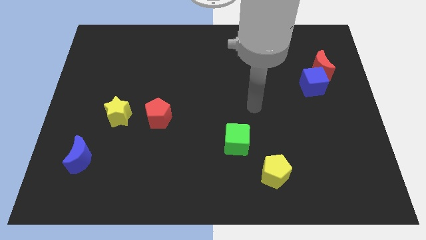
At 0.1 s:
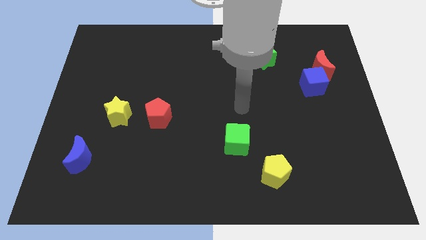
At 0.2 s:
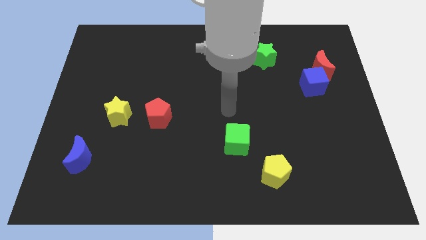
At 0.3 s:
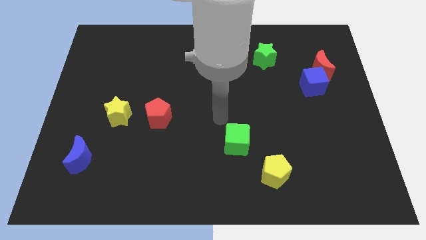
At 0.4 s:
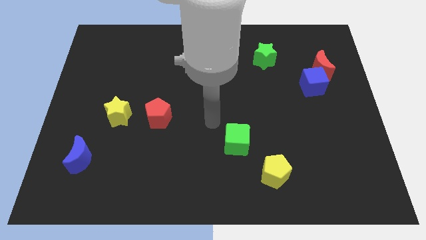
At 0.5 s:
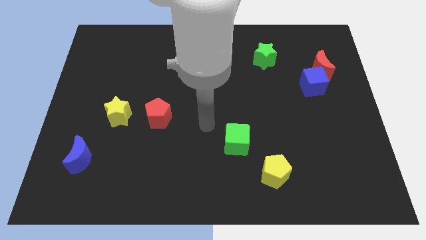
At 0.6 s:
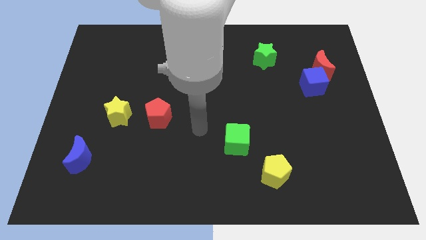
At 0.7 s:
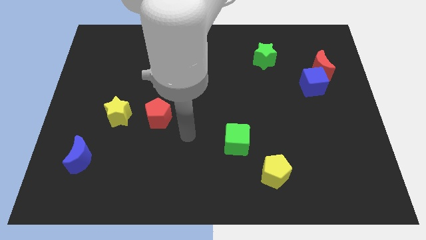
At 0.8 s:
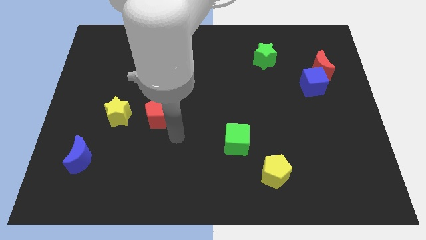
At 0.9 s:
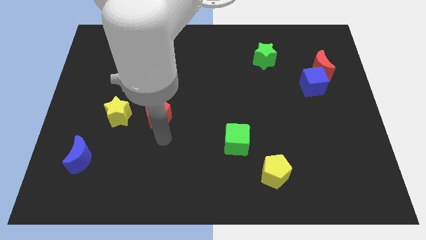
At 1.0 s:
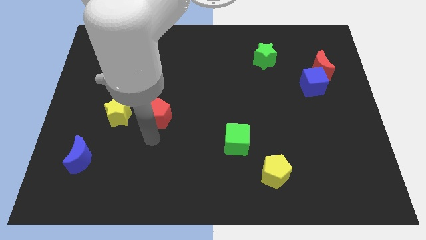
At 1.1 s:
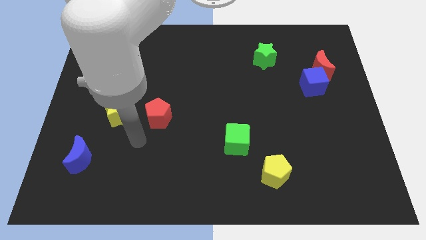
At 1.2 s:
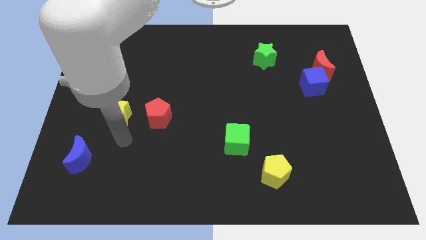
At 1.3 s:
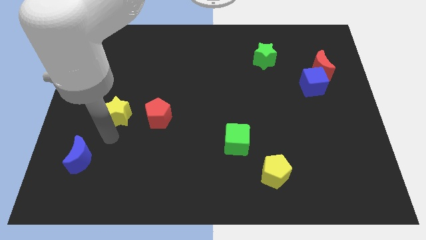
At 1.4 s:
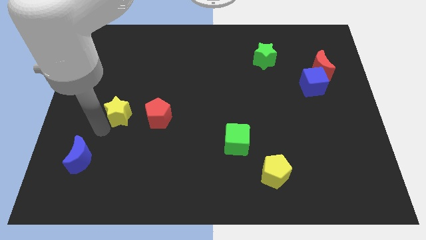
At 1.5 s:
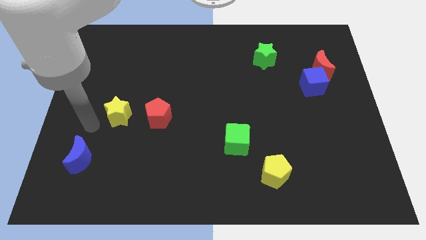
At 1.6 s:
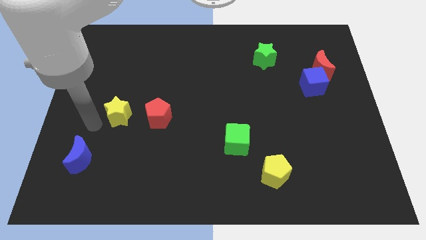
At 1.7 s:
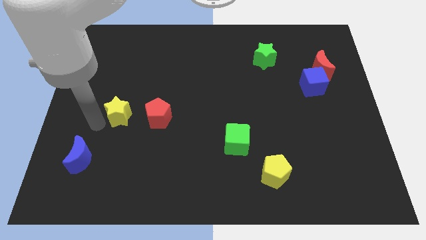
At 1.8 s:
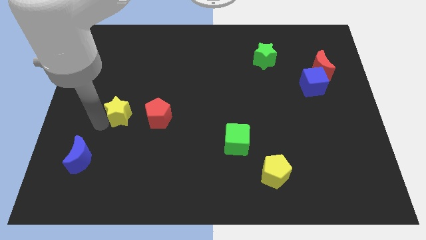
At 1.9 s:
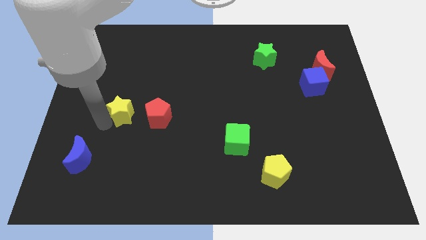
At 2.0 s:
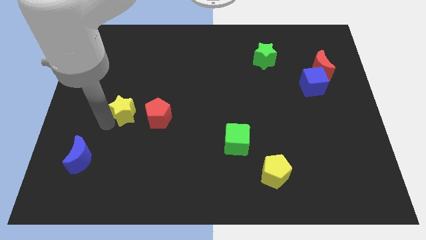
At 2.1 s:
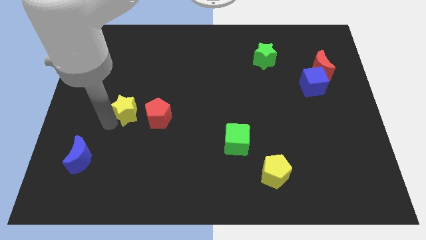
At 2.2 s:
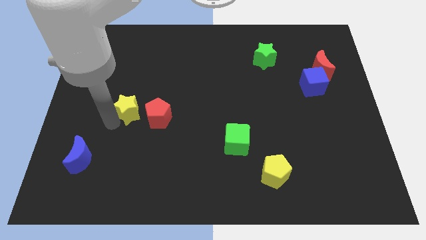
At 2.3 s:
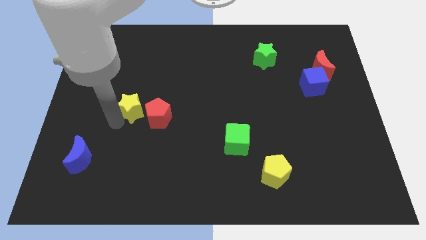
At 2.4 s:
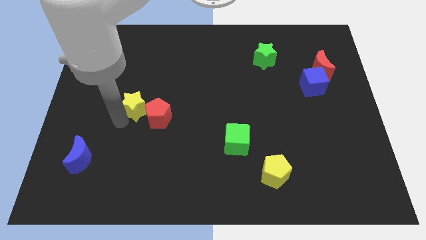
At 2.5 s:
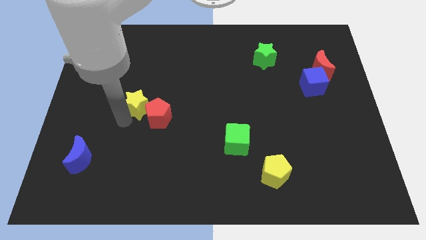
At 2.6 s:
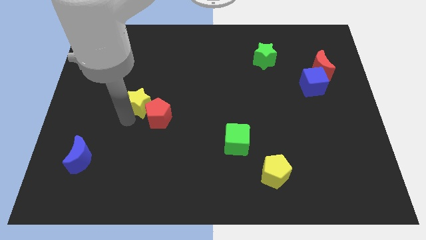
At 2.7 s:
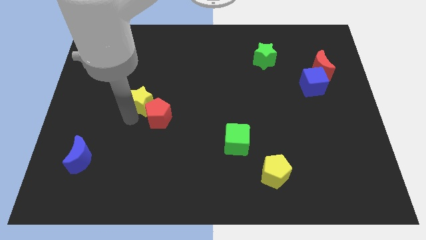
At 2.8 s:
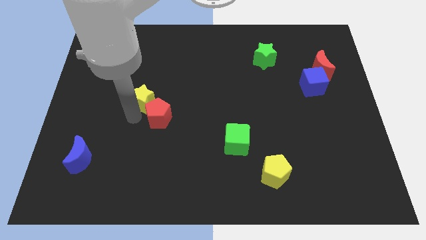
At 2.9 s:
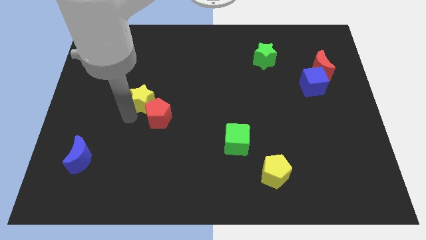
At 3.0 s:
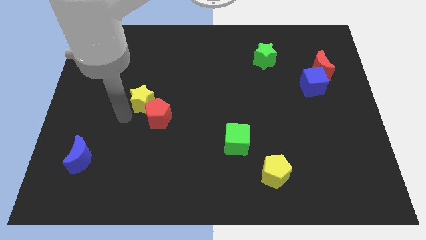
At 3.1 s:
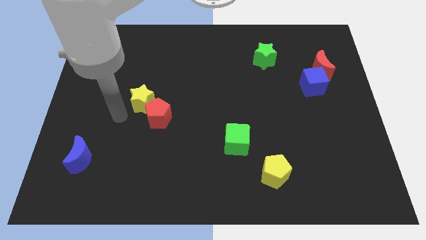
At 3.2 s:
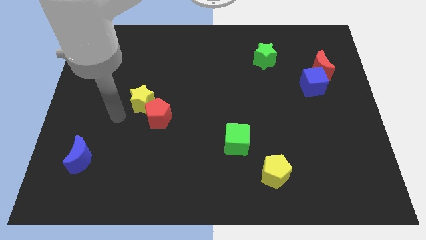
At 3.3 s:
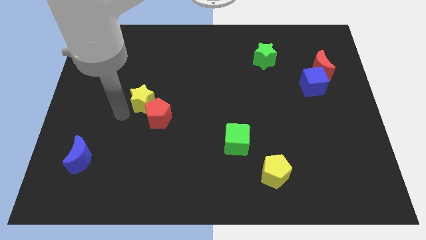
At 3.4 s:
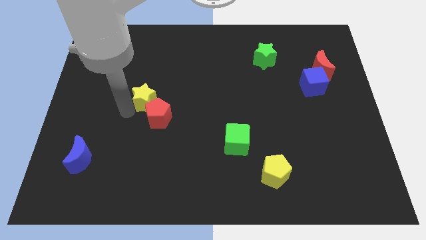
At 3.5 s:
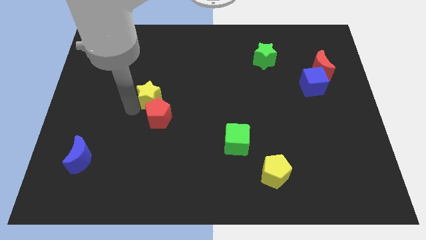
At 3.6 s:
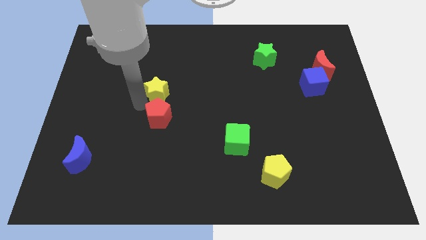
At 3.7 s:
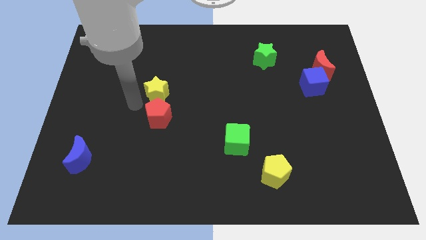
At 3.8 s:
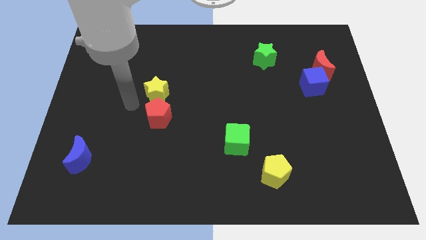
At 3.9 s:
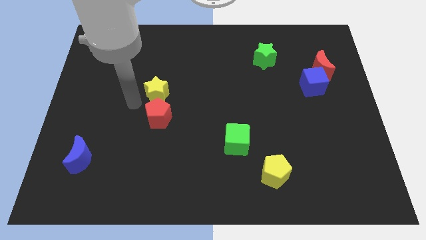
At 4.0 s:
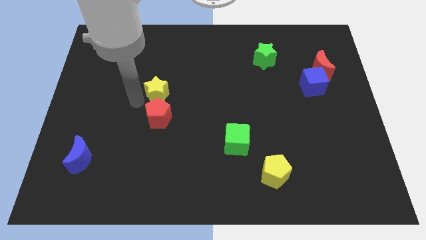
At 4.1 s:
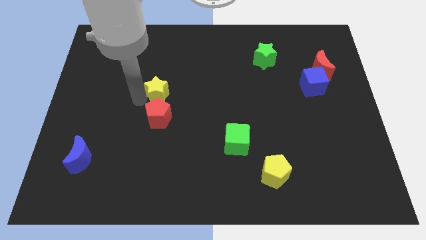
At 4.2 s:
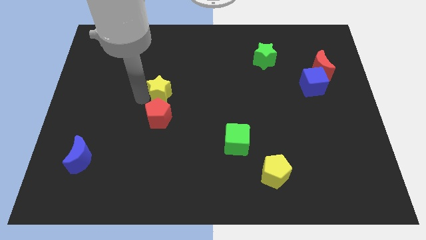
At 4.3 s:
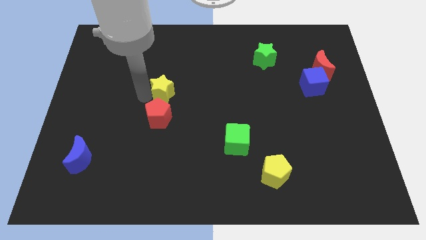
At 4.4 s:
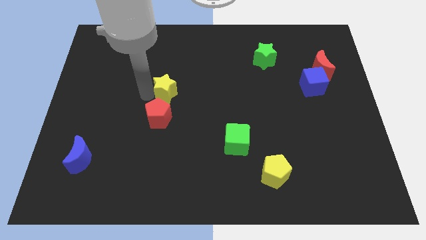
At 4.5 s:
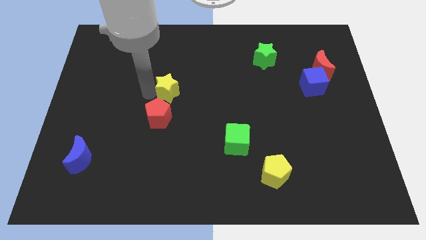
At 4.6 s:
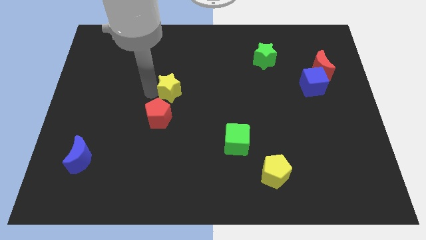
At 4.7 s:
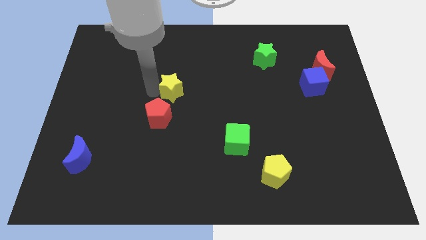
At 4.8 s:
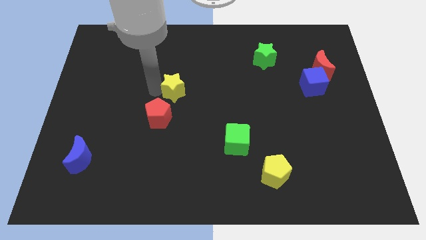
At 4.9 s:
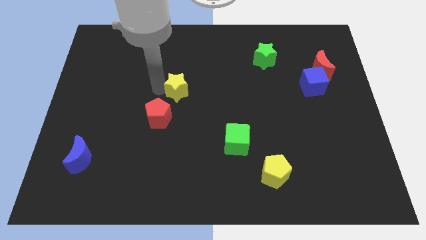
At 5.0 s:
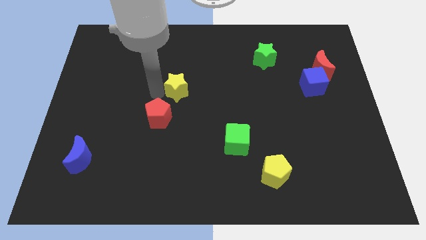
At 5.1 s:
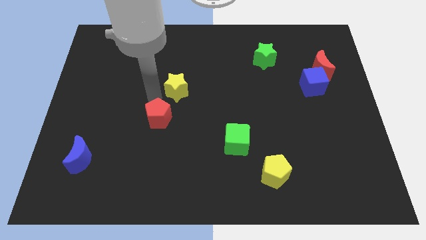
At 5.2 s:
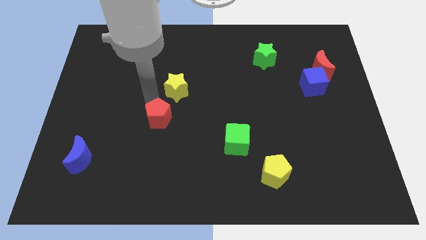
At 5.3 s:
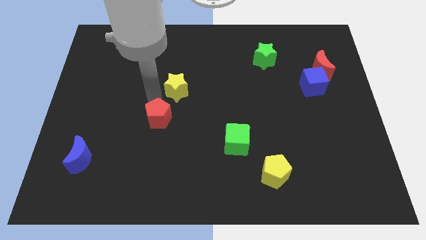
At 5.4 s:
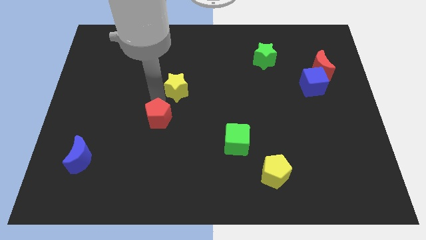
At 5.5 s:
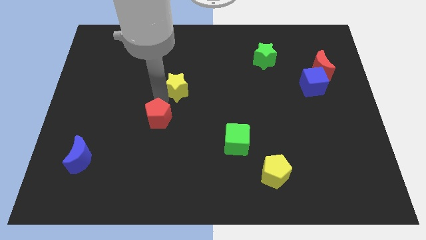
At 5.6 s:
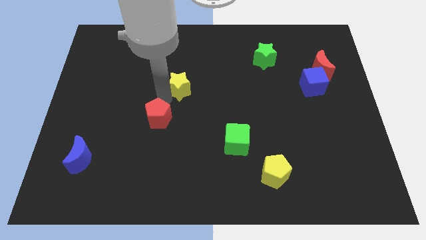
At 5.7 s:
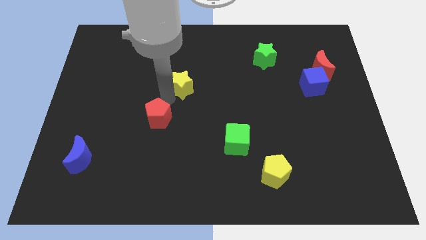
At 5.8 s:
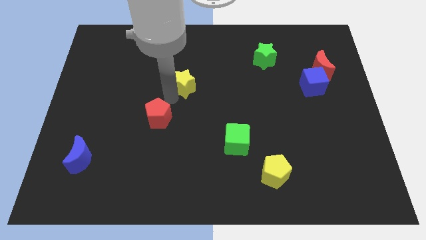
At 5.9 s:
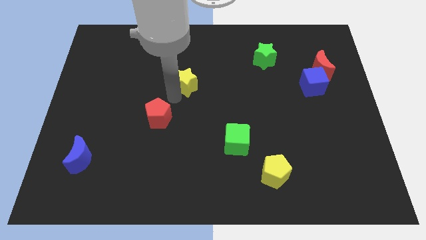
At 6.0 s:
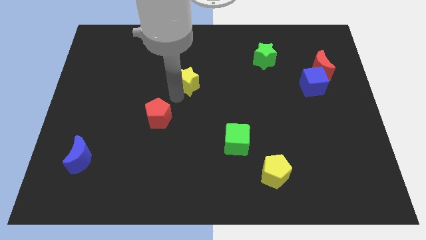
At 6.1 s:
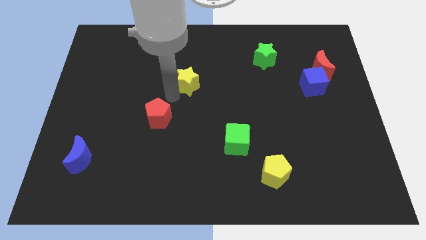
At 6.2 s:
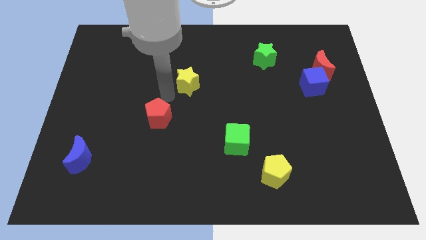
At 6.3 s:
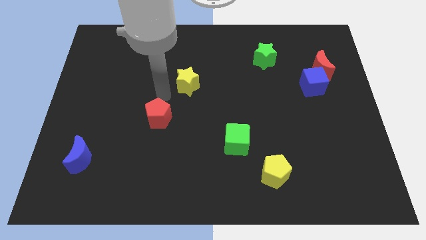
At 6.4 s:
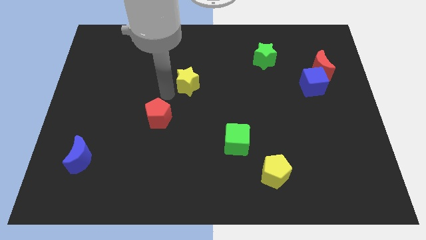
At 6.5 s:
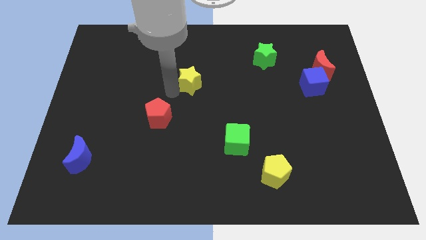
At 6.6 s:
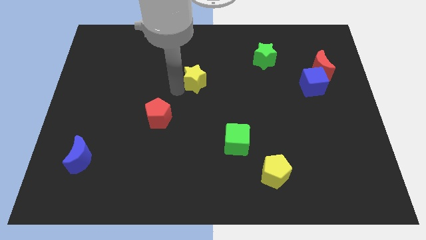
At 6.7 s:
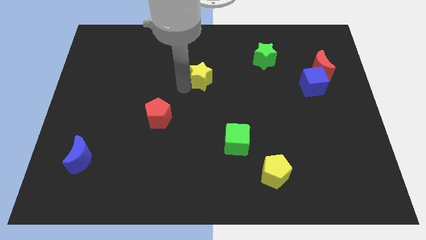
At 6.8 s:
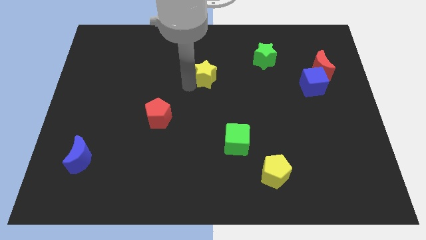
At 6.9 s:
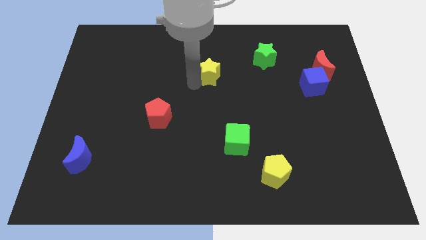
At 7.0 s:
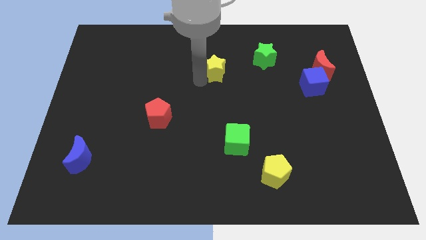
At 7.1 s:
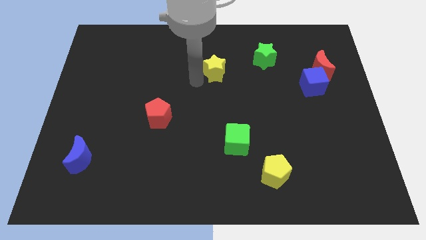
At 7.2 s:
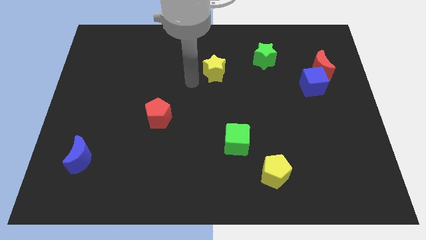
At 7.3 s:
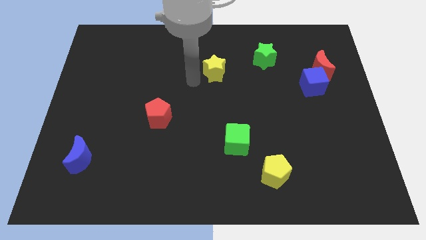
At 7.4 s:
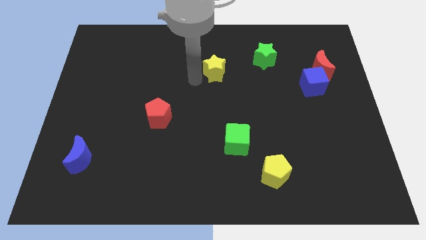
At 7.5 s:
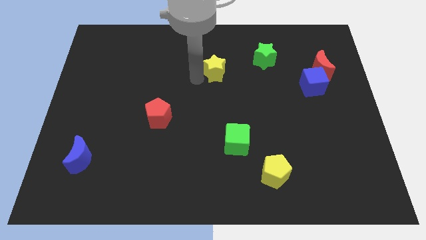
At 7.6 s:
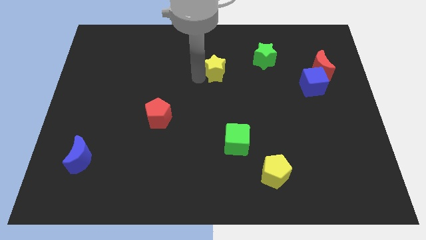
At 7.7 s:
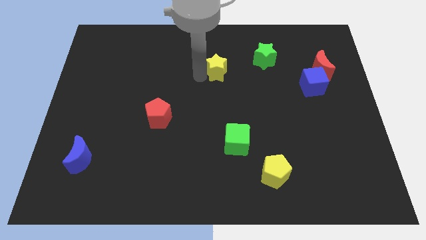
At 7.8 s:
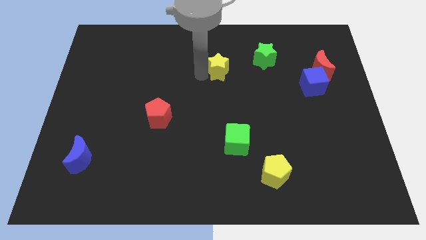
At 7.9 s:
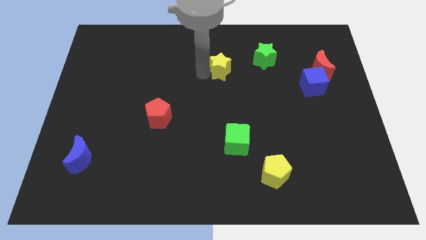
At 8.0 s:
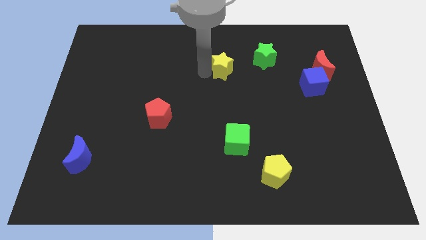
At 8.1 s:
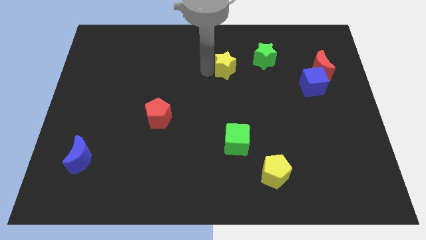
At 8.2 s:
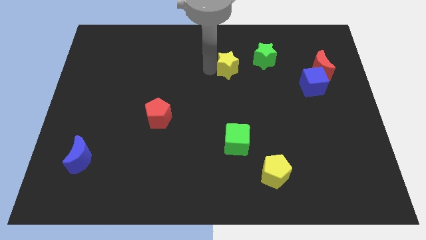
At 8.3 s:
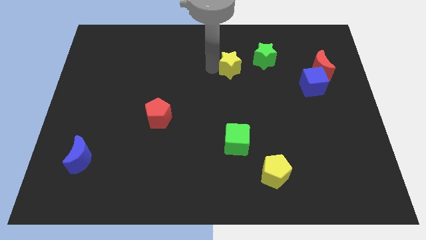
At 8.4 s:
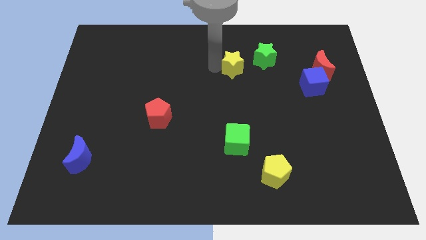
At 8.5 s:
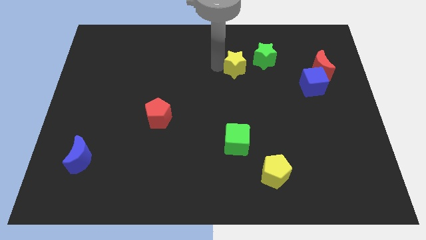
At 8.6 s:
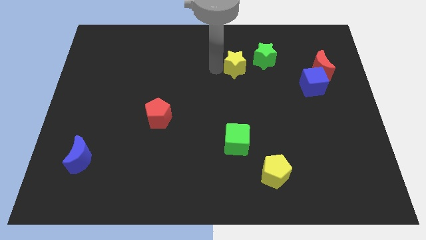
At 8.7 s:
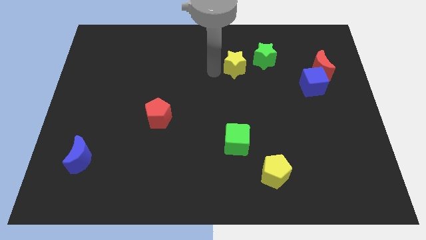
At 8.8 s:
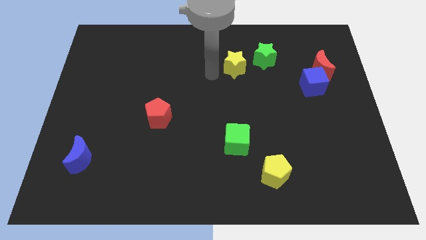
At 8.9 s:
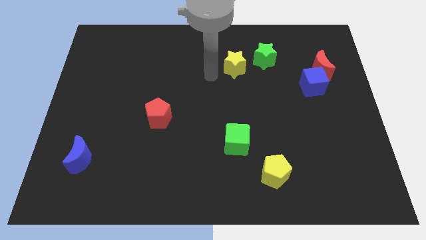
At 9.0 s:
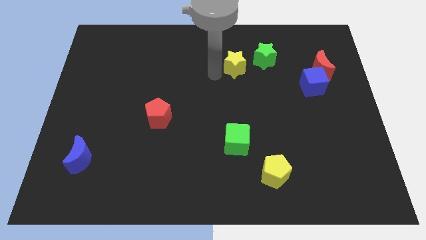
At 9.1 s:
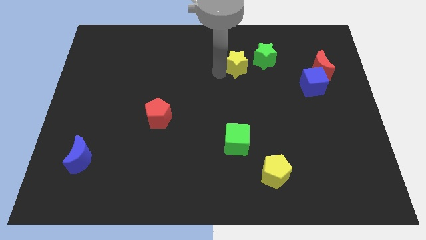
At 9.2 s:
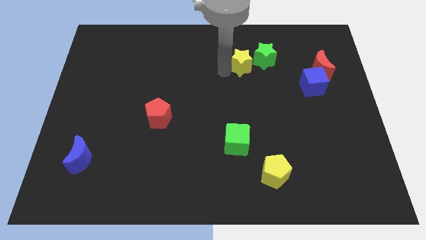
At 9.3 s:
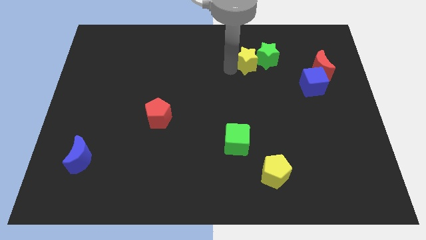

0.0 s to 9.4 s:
put the yellow star next to the green star
